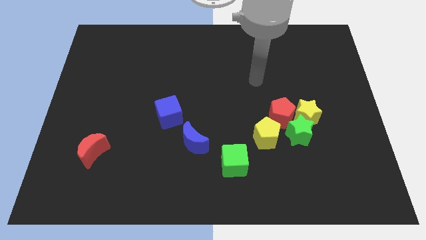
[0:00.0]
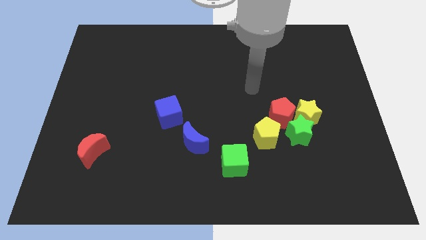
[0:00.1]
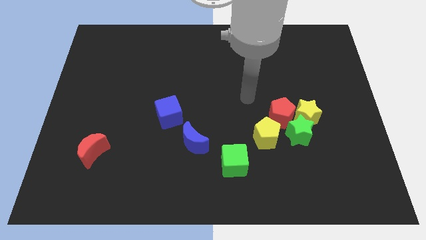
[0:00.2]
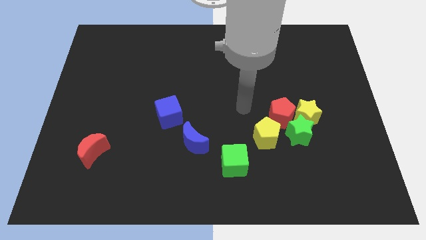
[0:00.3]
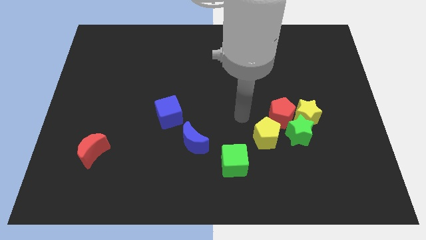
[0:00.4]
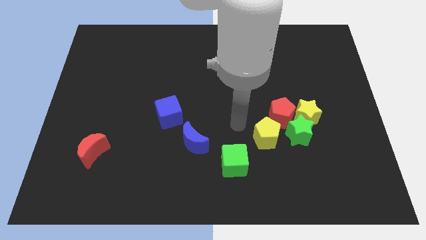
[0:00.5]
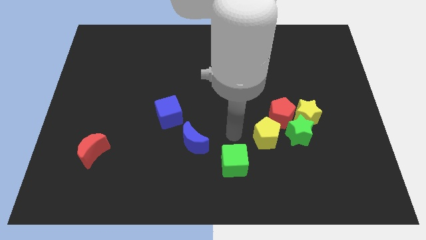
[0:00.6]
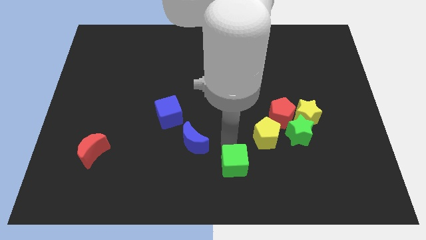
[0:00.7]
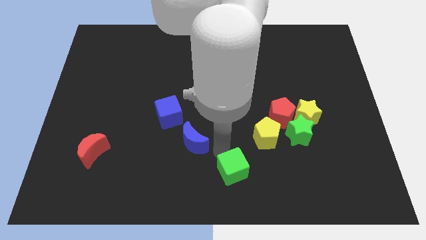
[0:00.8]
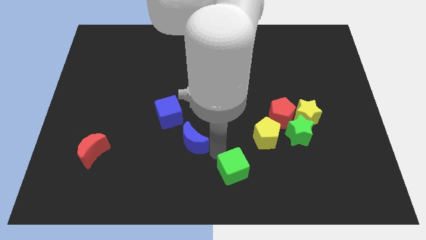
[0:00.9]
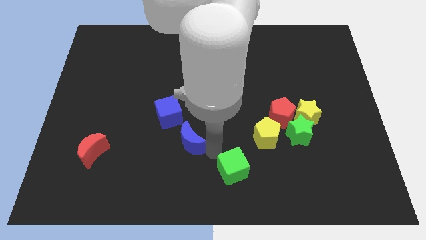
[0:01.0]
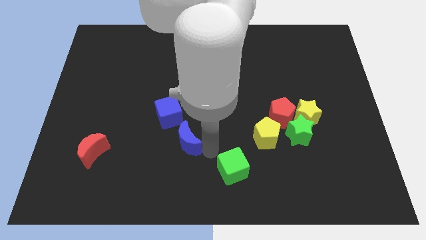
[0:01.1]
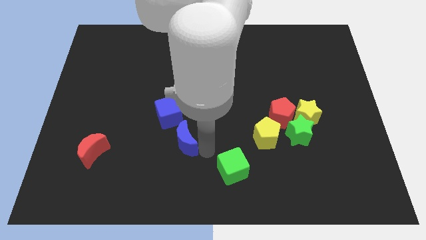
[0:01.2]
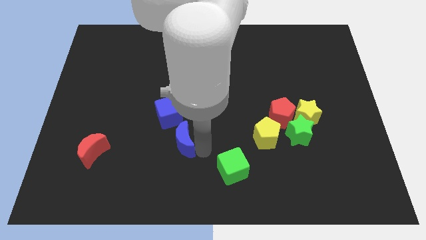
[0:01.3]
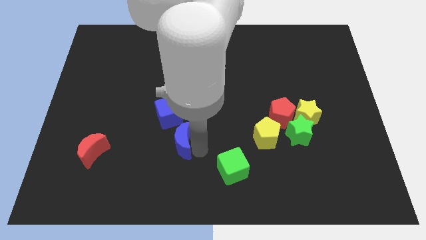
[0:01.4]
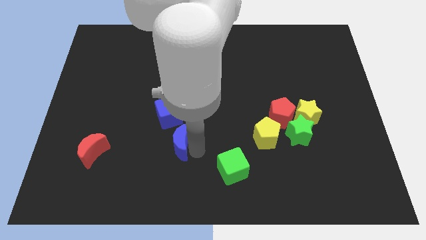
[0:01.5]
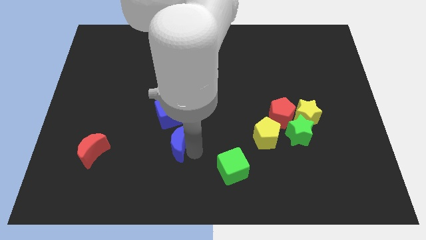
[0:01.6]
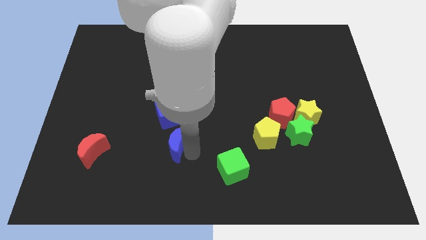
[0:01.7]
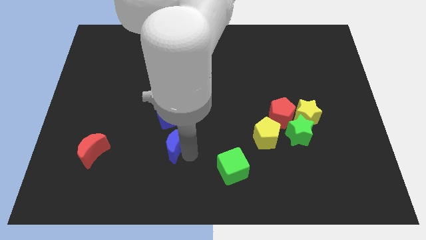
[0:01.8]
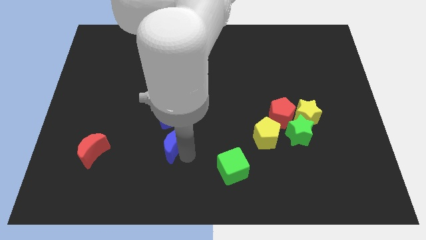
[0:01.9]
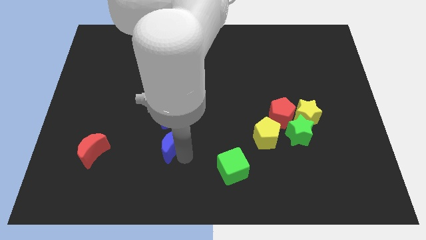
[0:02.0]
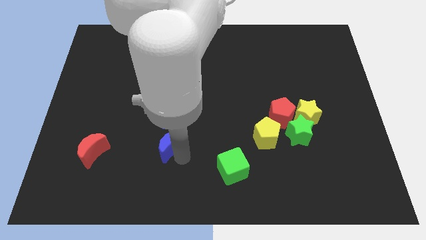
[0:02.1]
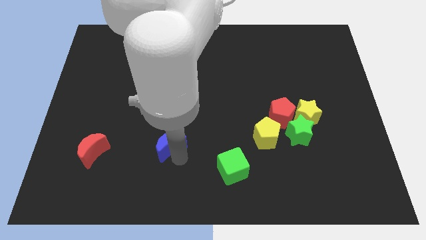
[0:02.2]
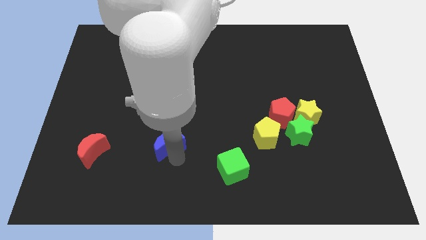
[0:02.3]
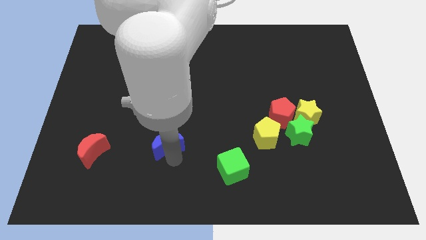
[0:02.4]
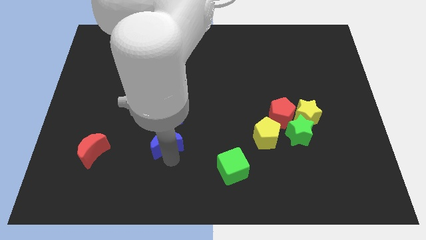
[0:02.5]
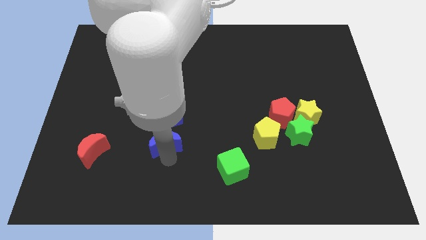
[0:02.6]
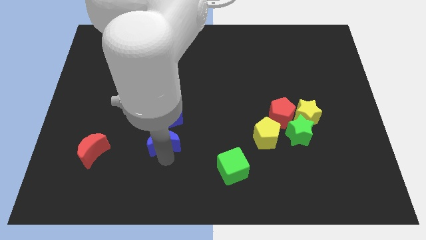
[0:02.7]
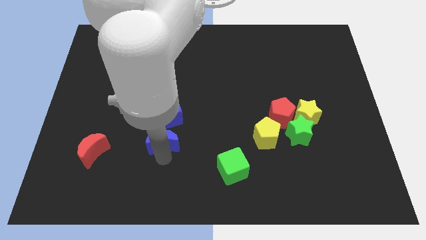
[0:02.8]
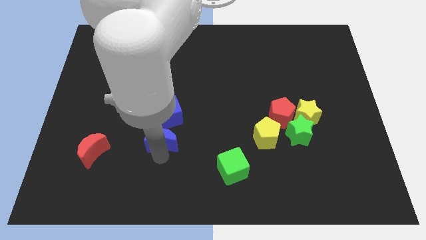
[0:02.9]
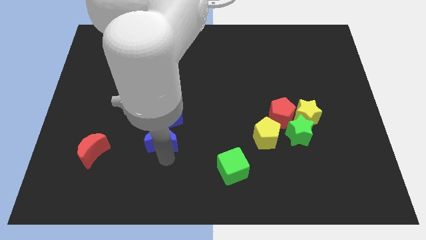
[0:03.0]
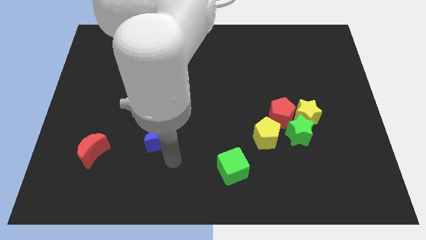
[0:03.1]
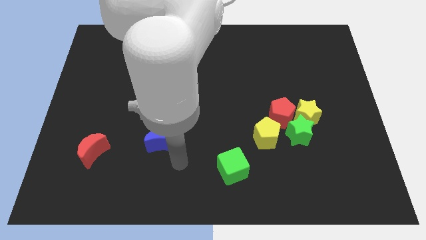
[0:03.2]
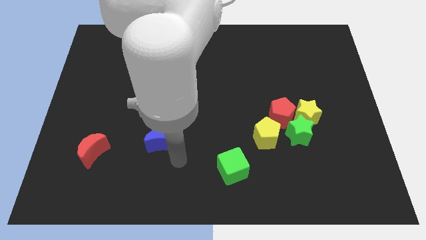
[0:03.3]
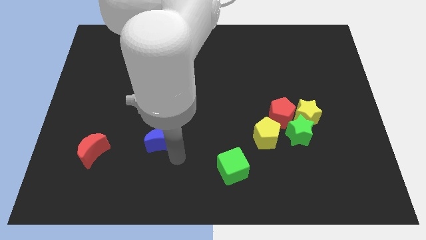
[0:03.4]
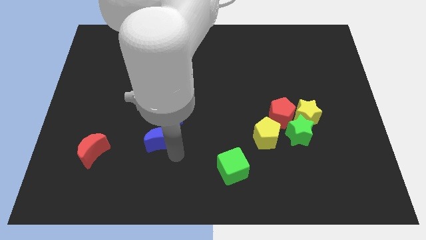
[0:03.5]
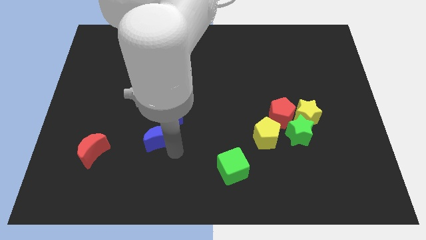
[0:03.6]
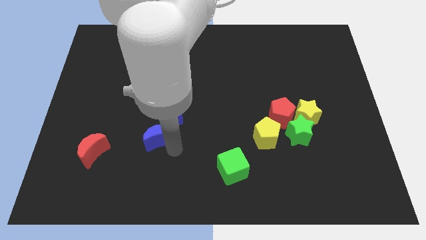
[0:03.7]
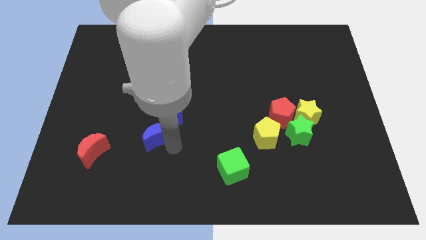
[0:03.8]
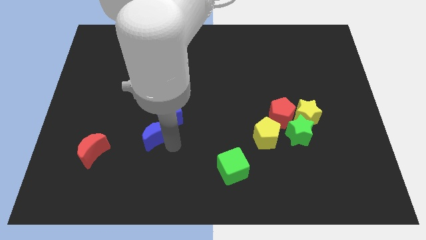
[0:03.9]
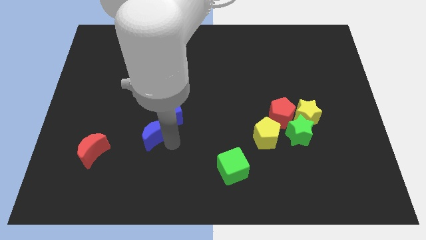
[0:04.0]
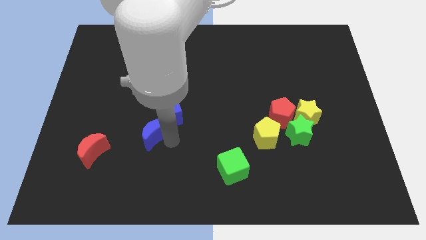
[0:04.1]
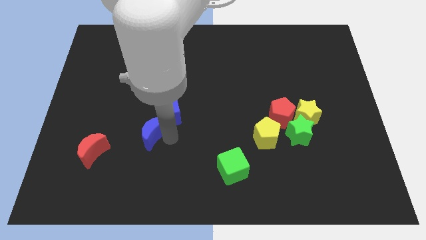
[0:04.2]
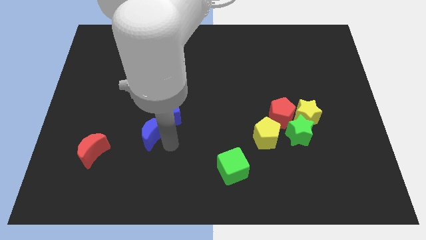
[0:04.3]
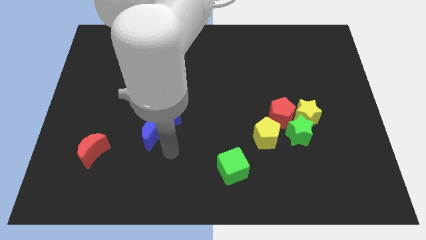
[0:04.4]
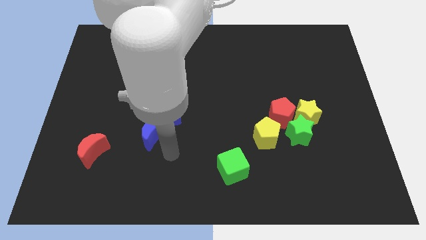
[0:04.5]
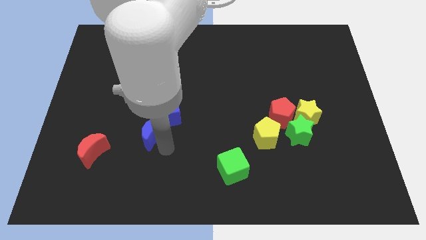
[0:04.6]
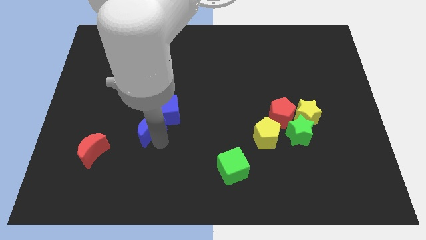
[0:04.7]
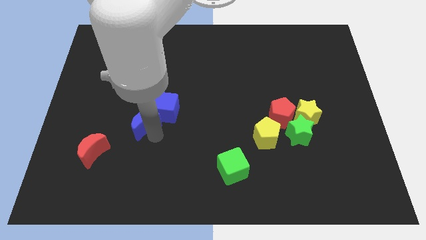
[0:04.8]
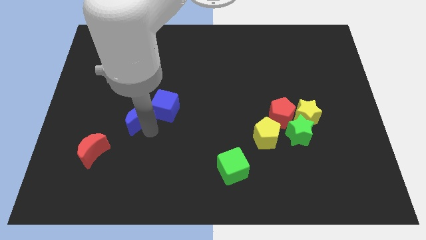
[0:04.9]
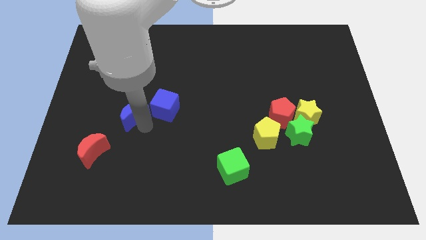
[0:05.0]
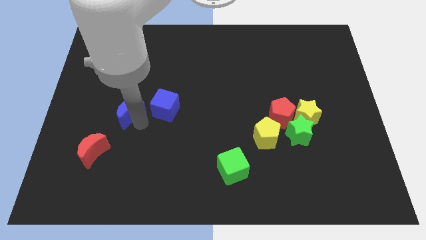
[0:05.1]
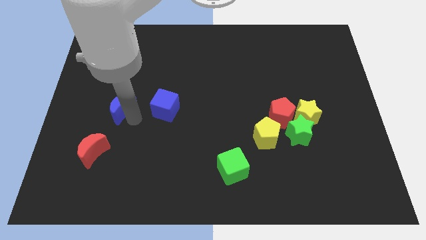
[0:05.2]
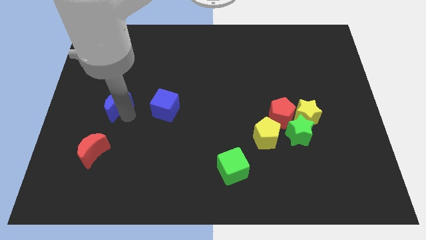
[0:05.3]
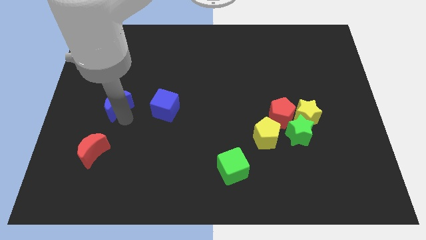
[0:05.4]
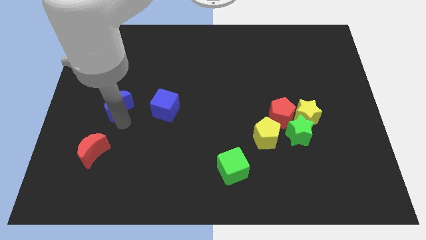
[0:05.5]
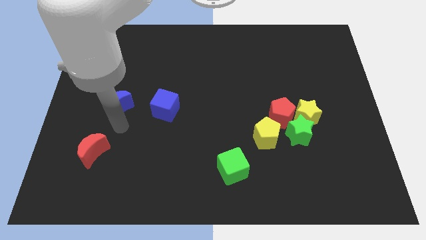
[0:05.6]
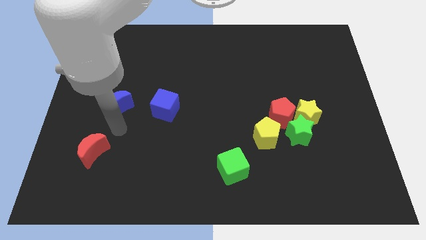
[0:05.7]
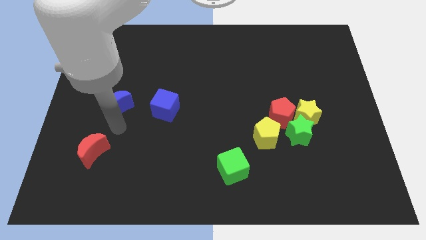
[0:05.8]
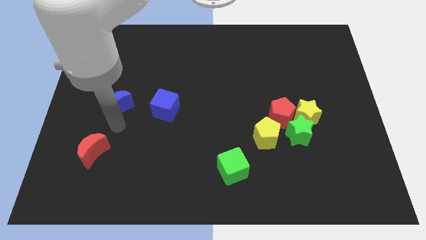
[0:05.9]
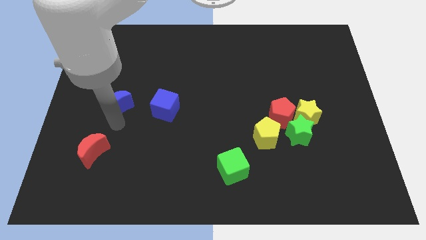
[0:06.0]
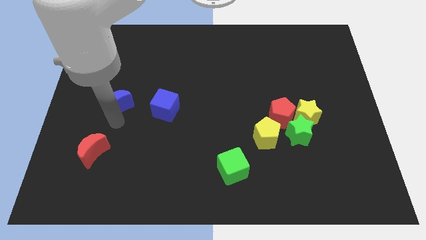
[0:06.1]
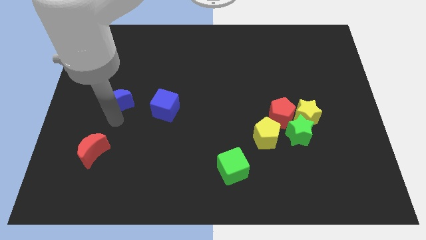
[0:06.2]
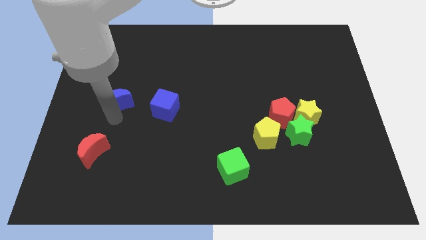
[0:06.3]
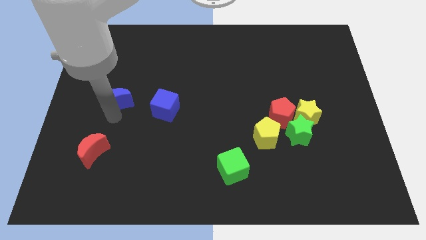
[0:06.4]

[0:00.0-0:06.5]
move the blue moon upwards and left diagonally

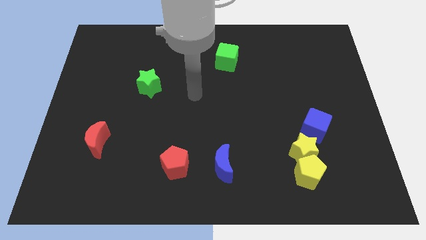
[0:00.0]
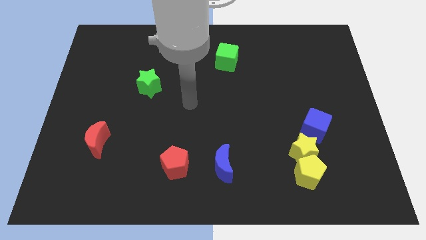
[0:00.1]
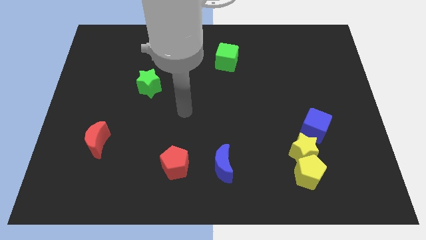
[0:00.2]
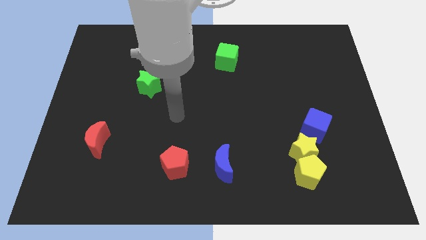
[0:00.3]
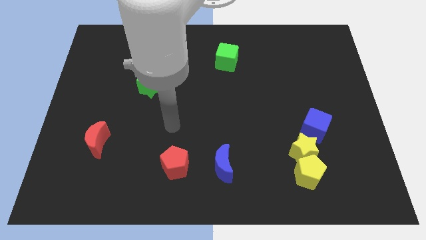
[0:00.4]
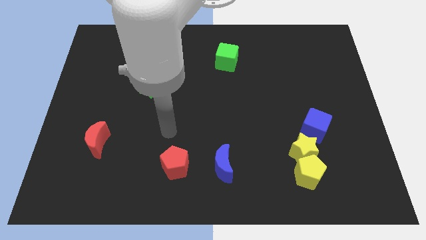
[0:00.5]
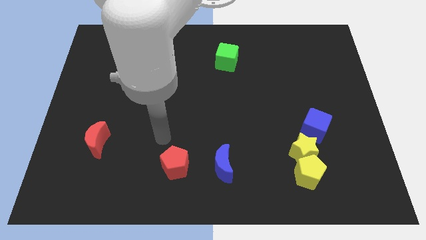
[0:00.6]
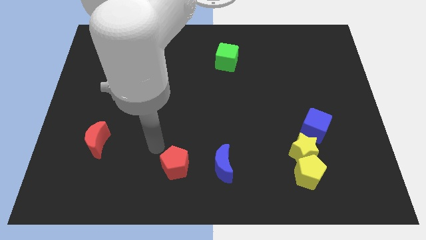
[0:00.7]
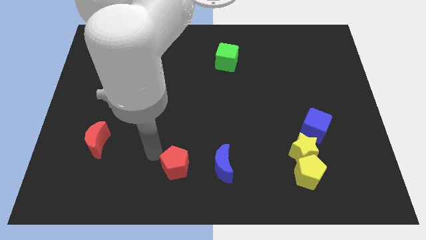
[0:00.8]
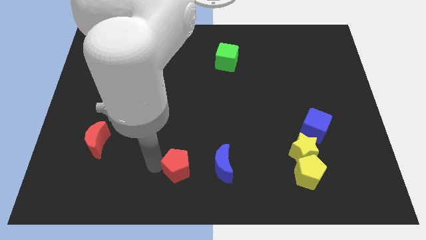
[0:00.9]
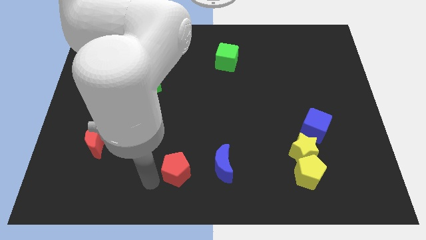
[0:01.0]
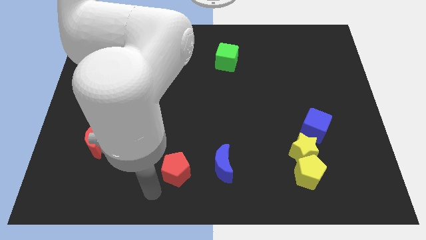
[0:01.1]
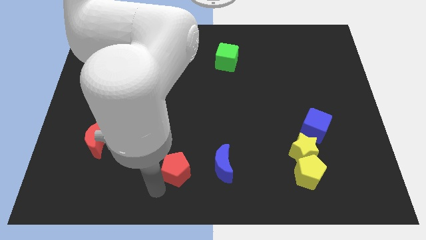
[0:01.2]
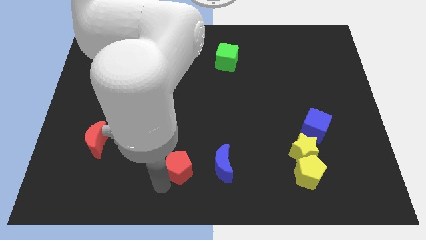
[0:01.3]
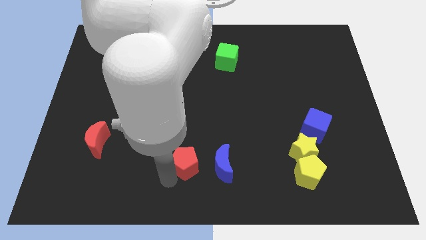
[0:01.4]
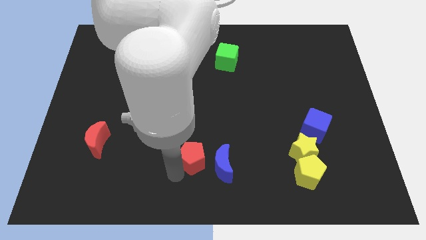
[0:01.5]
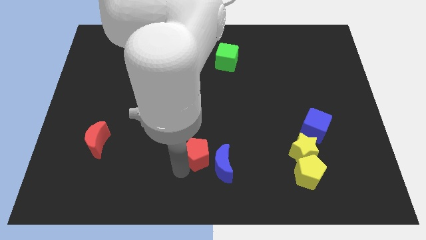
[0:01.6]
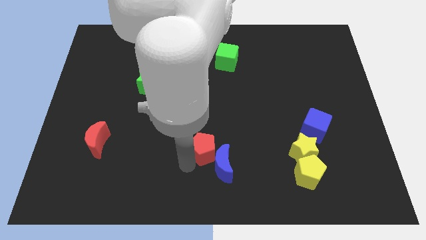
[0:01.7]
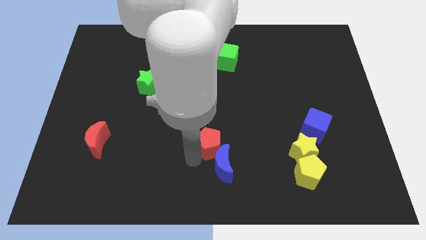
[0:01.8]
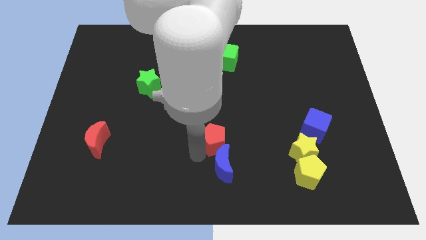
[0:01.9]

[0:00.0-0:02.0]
slightly push the red pentagon right
